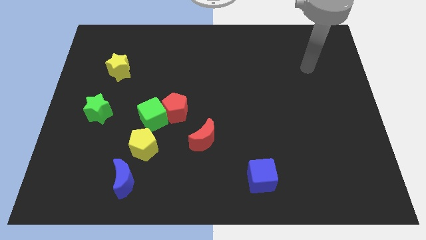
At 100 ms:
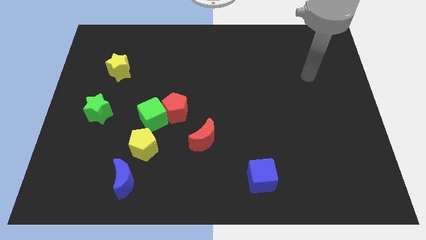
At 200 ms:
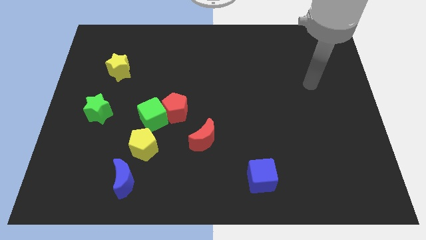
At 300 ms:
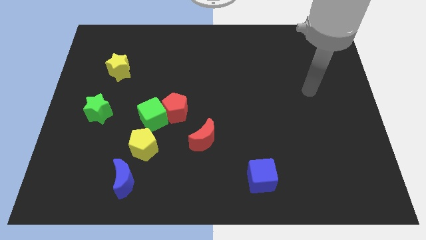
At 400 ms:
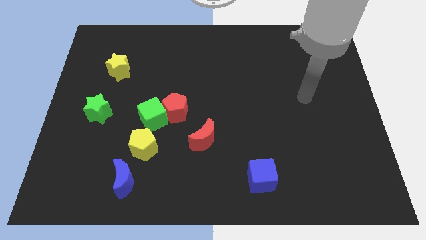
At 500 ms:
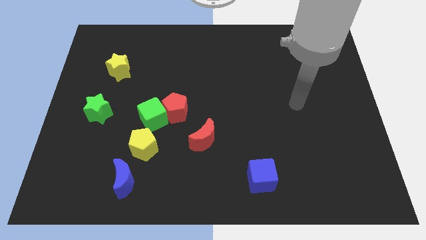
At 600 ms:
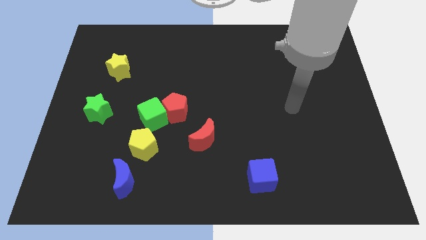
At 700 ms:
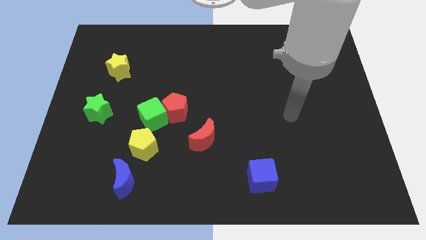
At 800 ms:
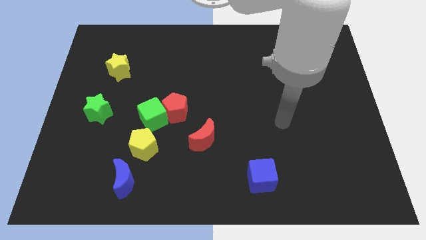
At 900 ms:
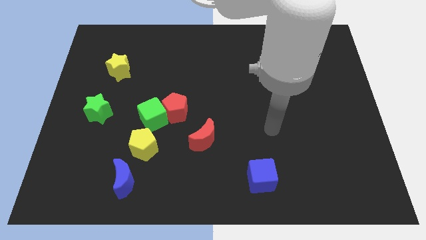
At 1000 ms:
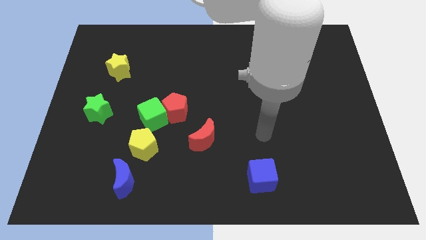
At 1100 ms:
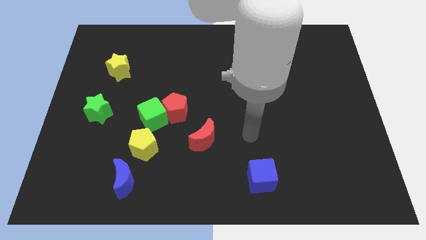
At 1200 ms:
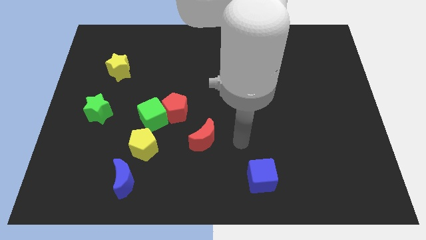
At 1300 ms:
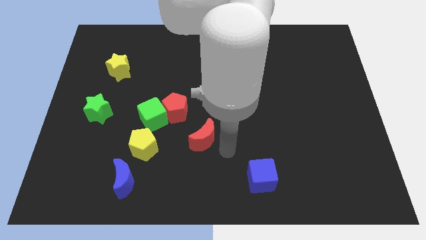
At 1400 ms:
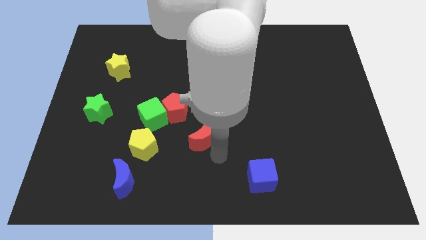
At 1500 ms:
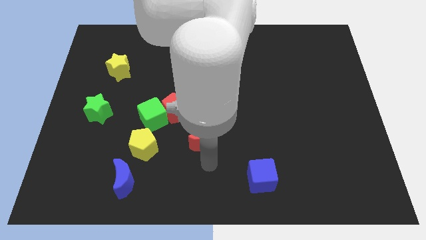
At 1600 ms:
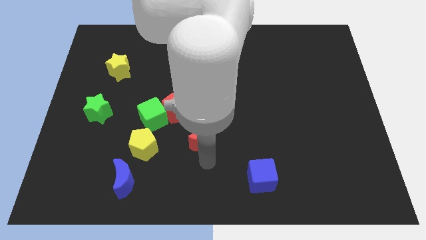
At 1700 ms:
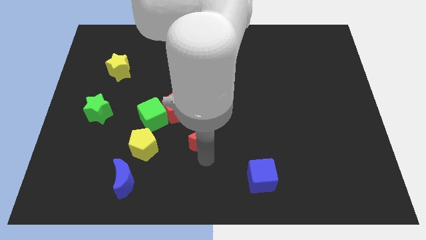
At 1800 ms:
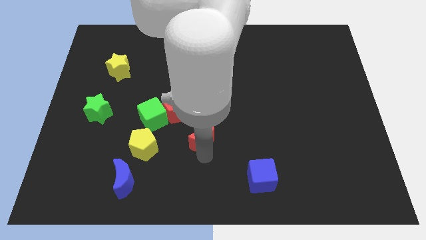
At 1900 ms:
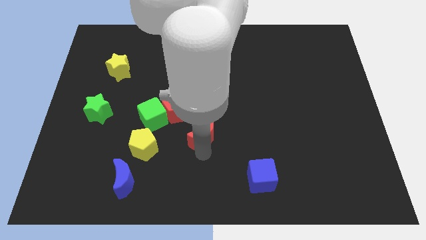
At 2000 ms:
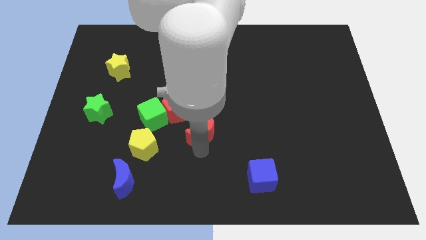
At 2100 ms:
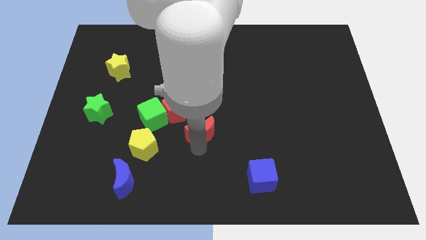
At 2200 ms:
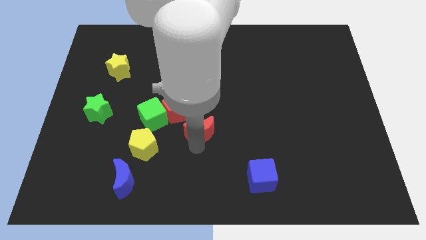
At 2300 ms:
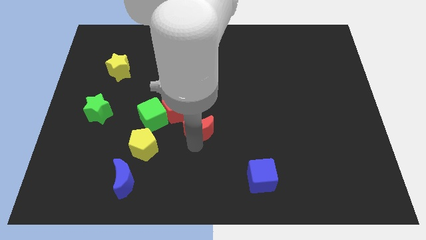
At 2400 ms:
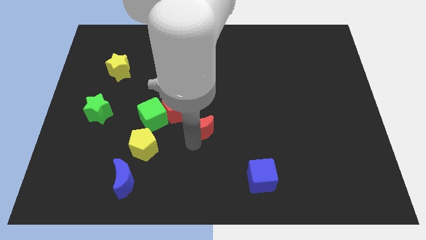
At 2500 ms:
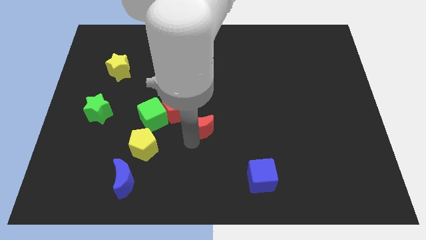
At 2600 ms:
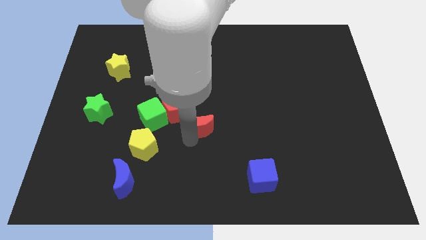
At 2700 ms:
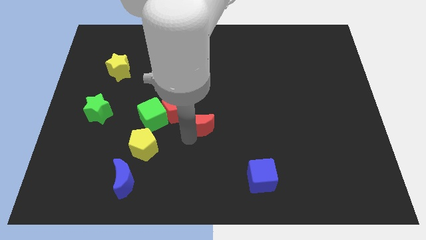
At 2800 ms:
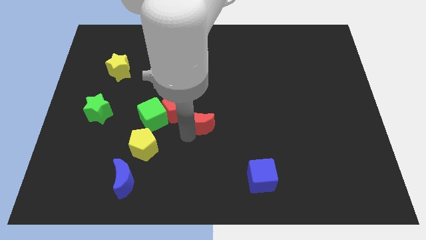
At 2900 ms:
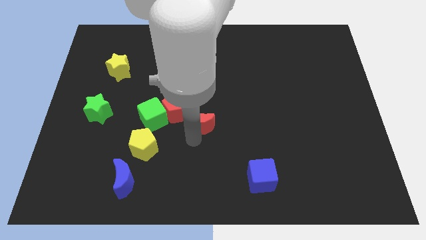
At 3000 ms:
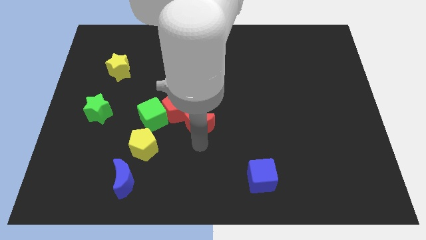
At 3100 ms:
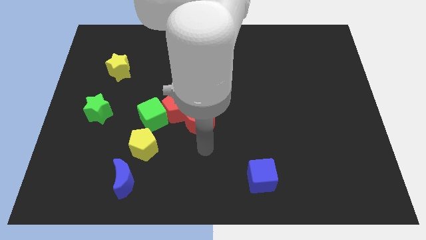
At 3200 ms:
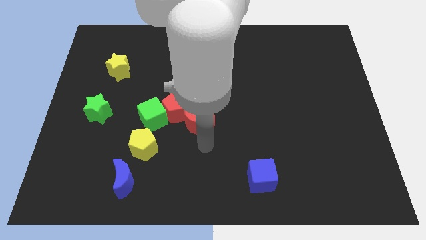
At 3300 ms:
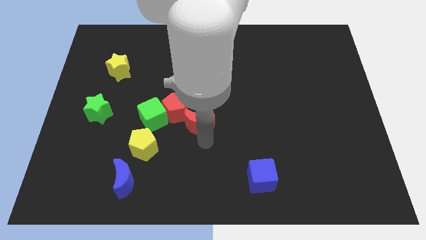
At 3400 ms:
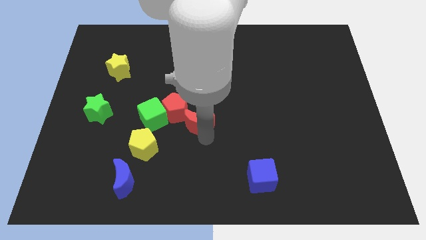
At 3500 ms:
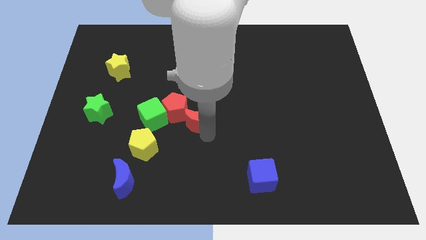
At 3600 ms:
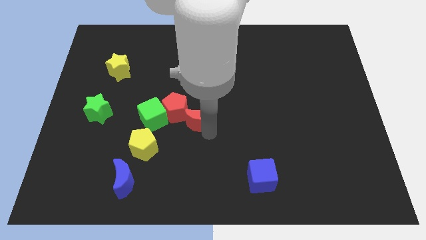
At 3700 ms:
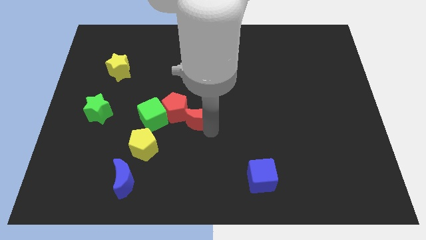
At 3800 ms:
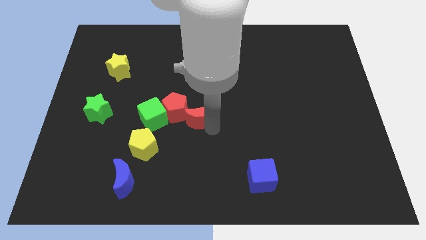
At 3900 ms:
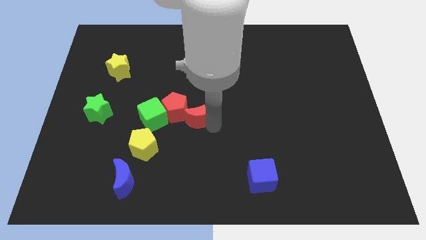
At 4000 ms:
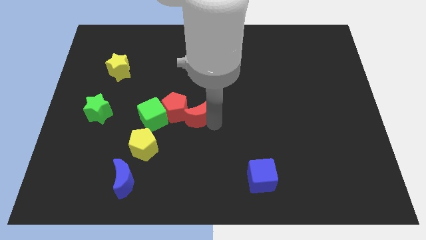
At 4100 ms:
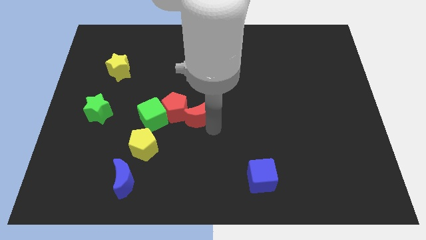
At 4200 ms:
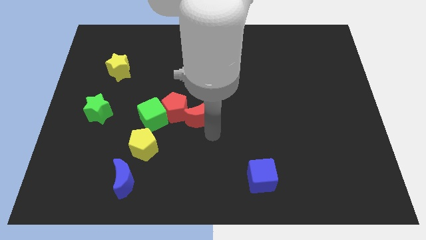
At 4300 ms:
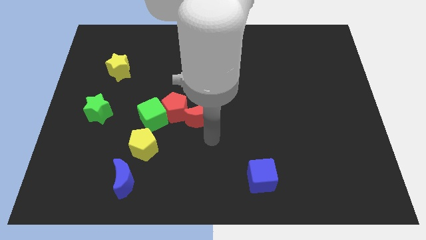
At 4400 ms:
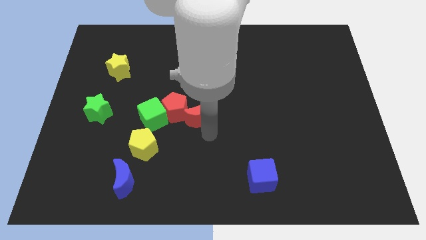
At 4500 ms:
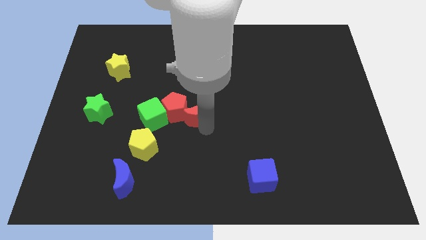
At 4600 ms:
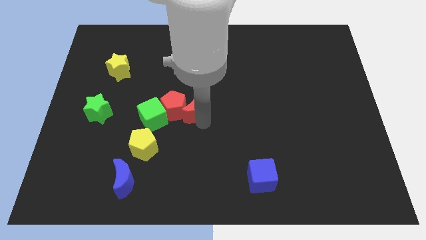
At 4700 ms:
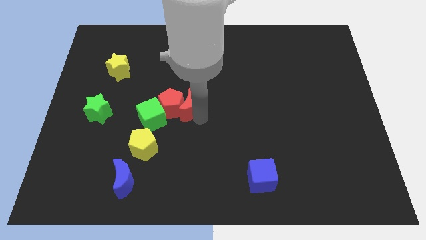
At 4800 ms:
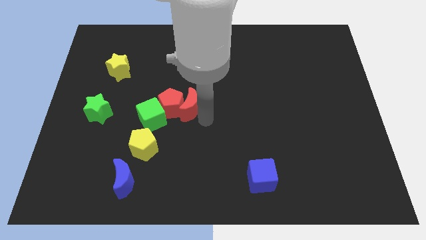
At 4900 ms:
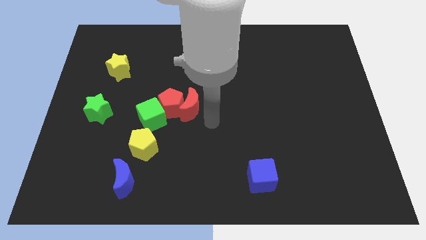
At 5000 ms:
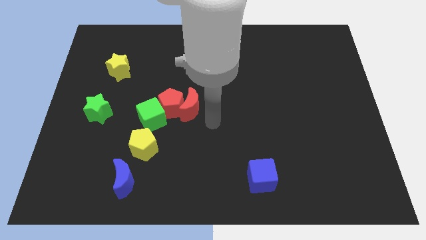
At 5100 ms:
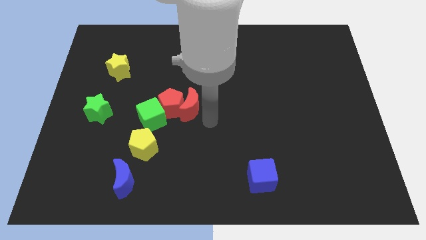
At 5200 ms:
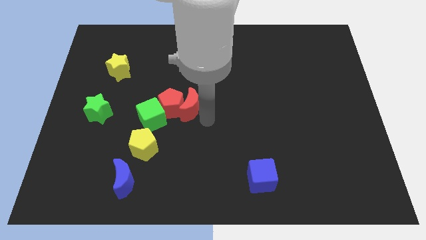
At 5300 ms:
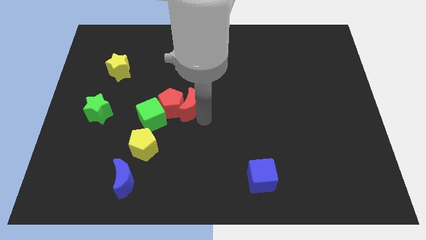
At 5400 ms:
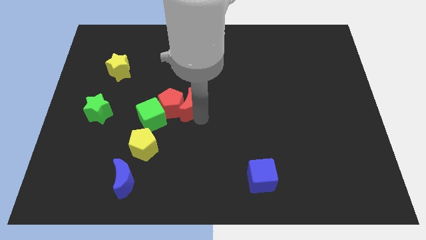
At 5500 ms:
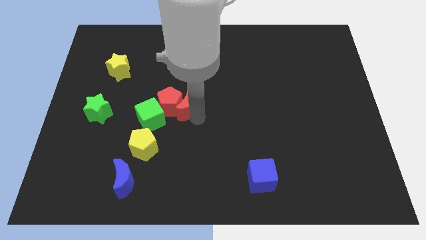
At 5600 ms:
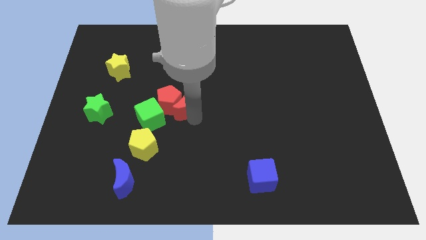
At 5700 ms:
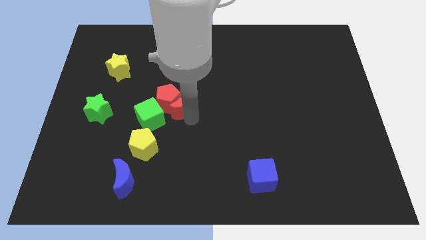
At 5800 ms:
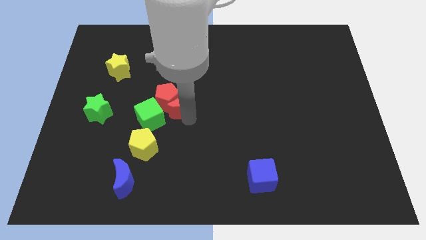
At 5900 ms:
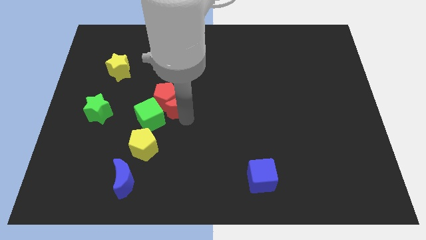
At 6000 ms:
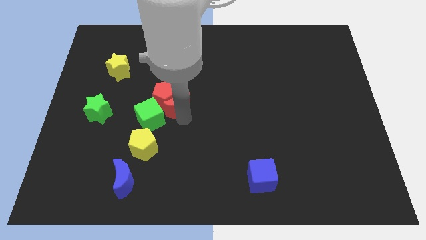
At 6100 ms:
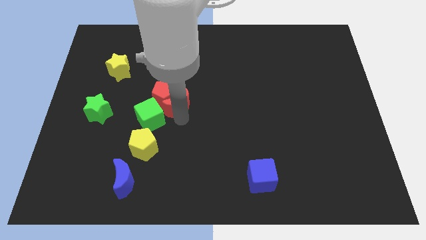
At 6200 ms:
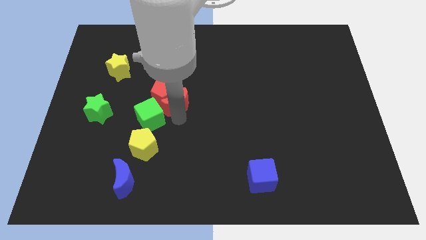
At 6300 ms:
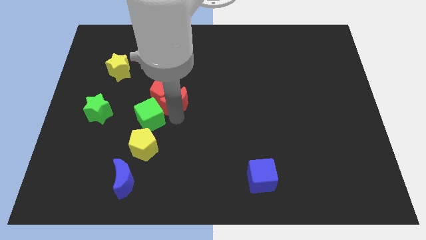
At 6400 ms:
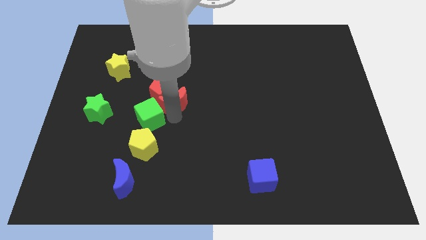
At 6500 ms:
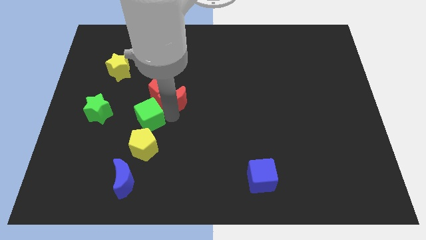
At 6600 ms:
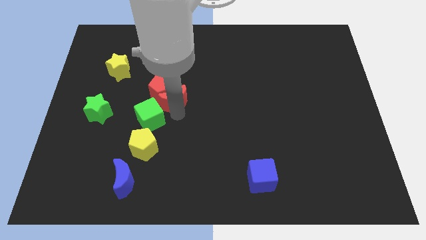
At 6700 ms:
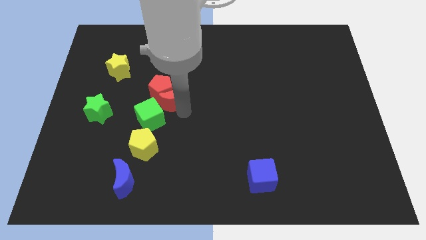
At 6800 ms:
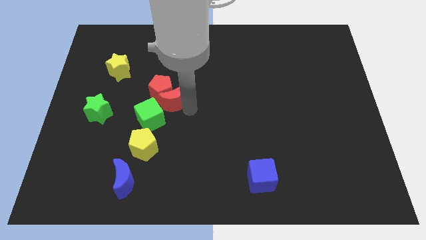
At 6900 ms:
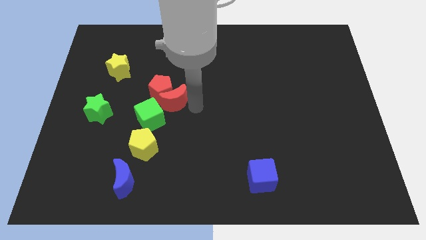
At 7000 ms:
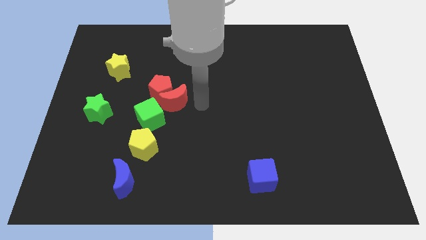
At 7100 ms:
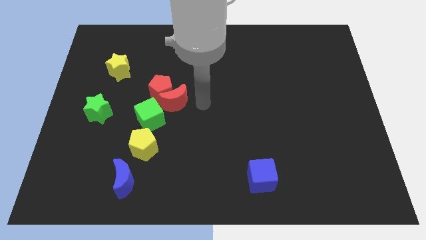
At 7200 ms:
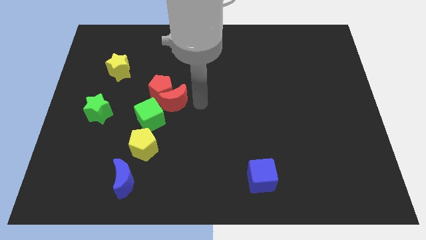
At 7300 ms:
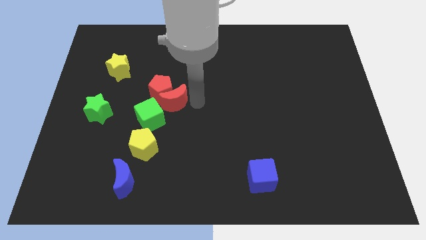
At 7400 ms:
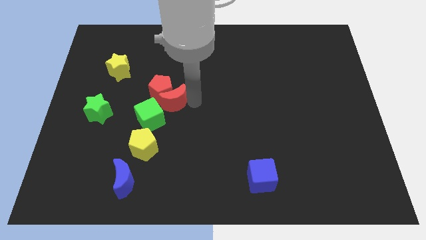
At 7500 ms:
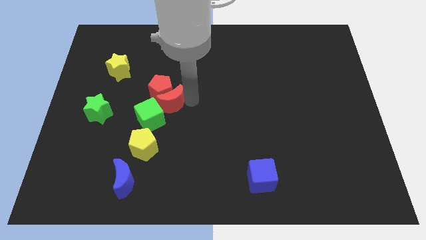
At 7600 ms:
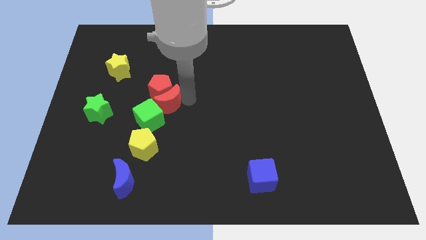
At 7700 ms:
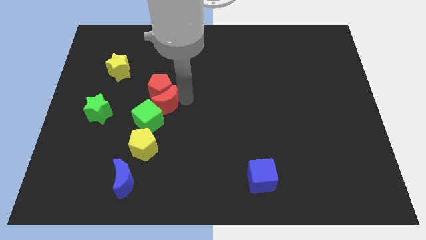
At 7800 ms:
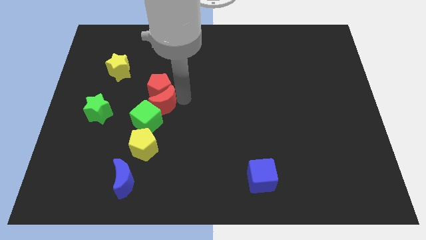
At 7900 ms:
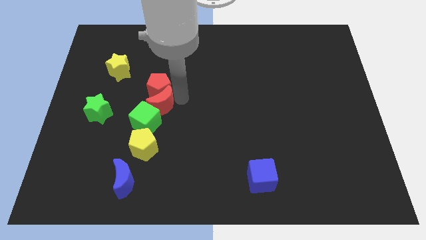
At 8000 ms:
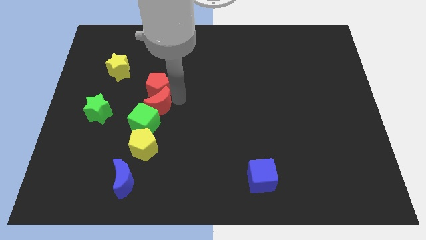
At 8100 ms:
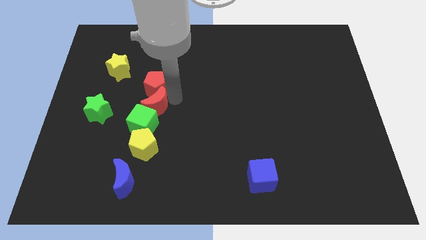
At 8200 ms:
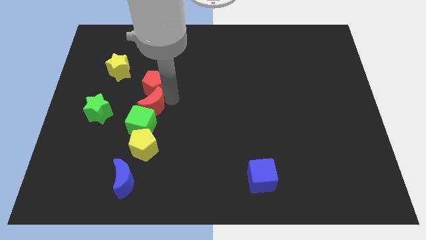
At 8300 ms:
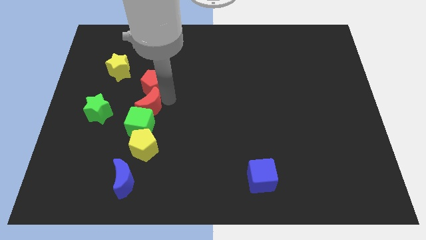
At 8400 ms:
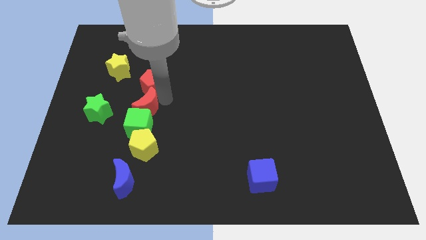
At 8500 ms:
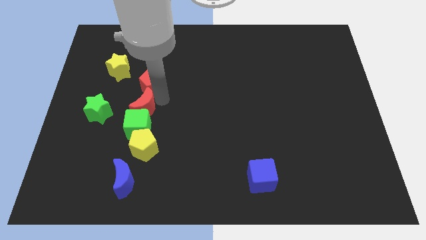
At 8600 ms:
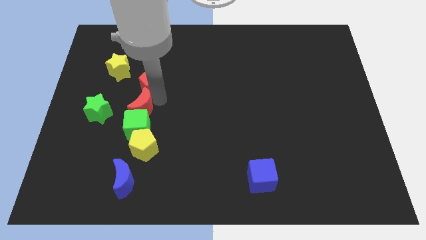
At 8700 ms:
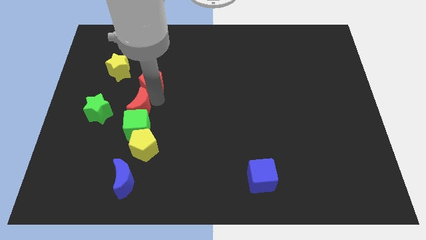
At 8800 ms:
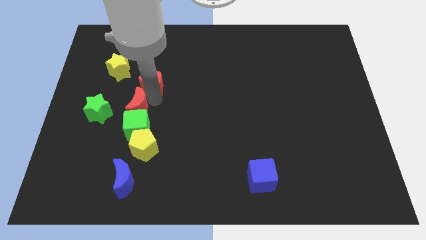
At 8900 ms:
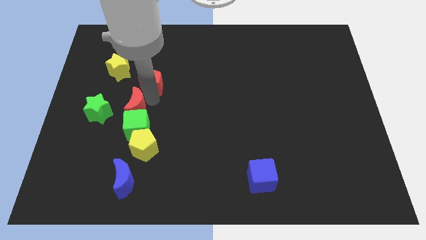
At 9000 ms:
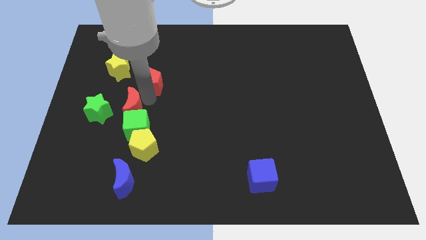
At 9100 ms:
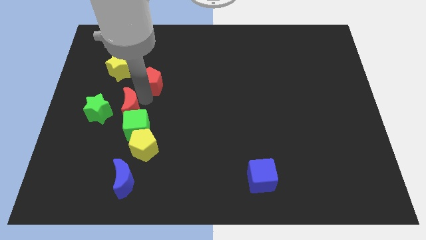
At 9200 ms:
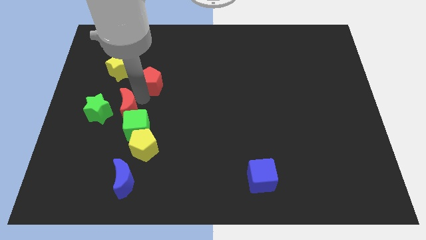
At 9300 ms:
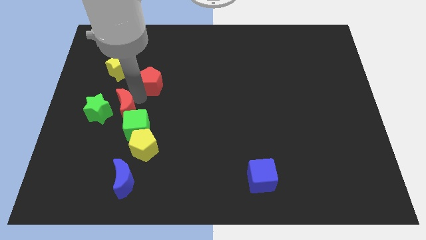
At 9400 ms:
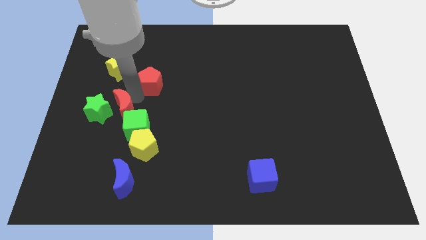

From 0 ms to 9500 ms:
move the red moon towards the green star
